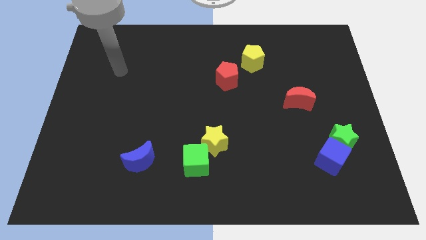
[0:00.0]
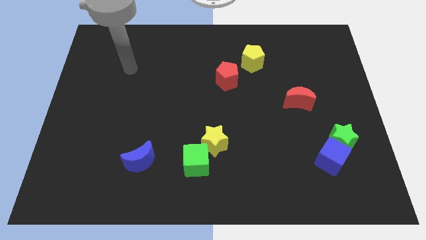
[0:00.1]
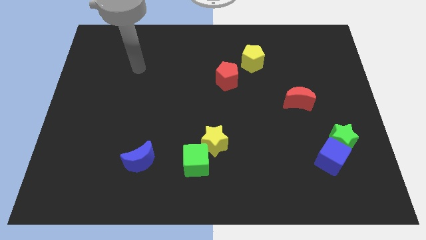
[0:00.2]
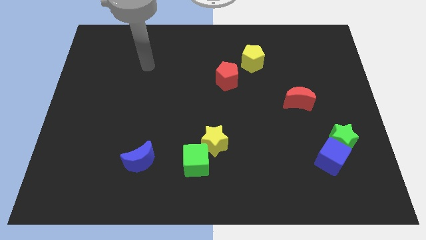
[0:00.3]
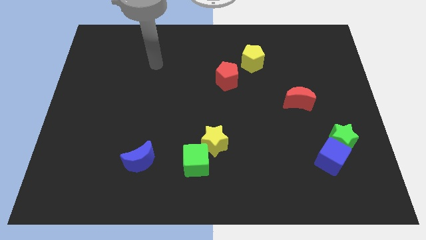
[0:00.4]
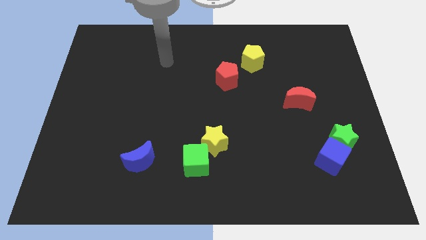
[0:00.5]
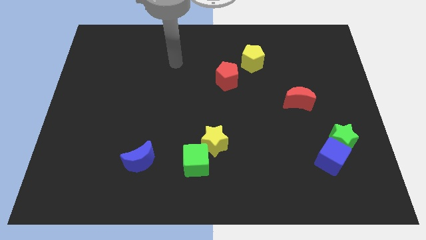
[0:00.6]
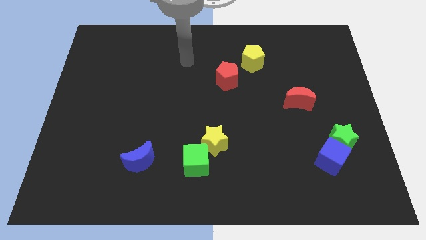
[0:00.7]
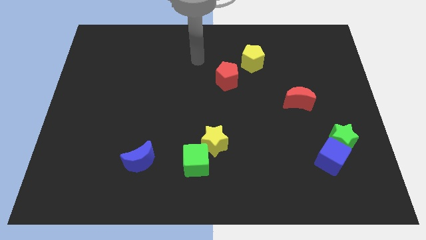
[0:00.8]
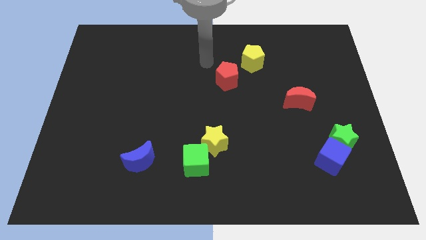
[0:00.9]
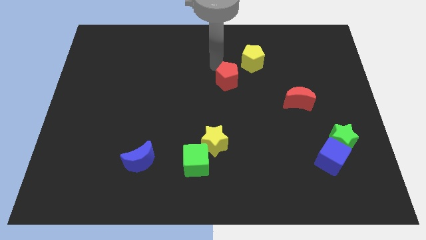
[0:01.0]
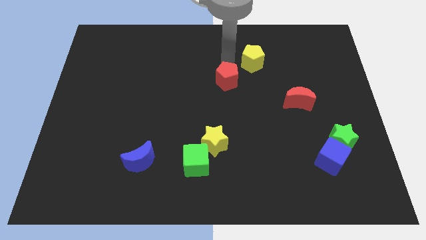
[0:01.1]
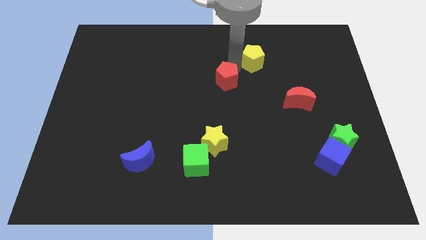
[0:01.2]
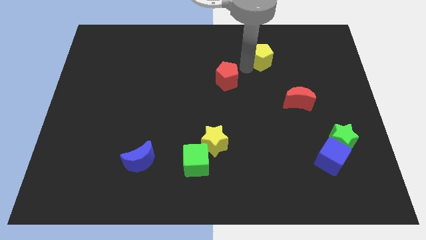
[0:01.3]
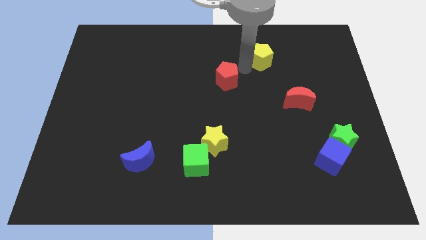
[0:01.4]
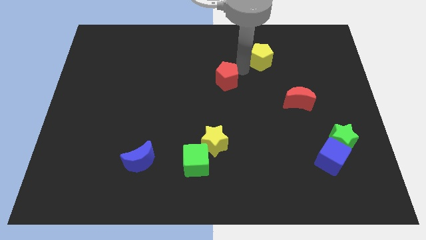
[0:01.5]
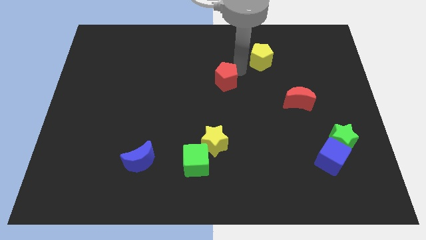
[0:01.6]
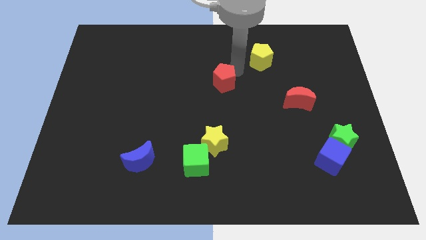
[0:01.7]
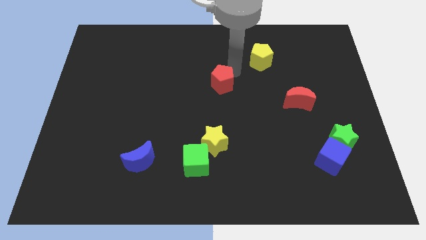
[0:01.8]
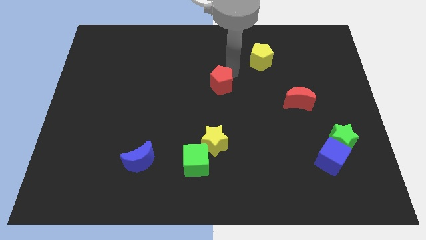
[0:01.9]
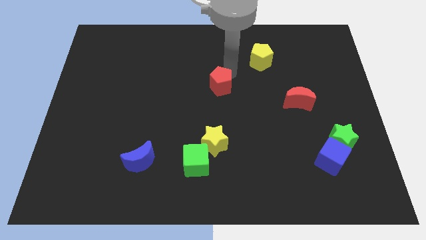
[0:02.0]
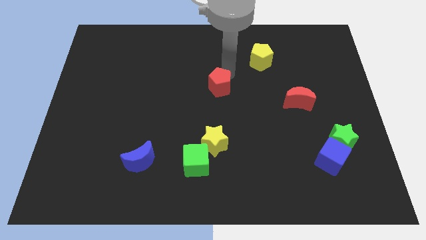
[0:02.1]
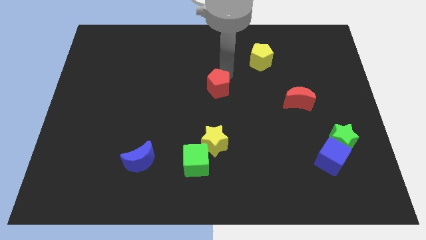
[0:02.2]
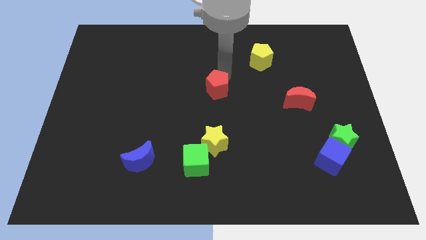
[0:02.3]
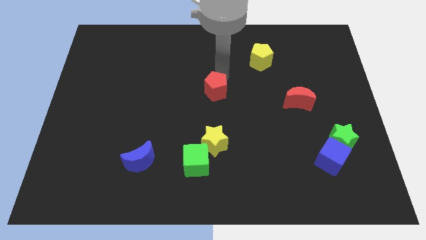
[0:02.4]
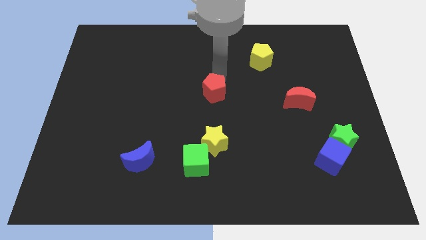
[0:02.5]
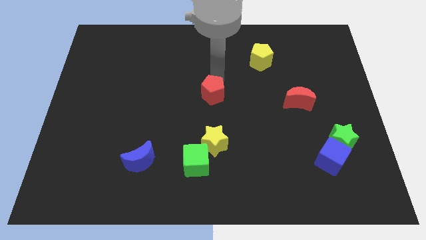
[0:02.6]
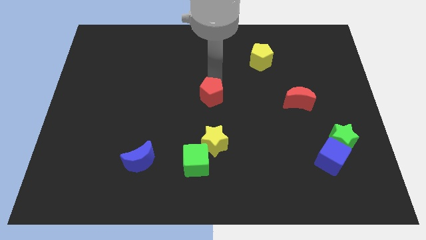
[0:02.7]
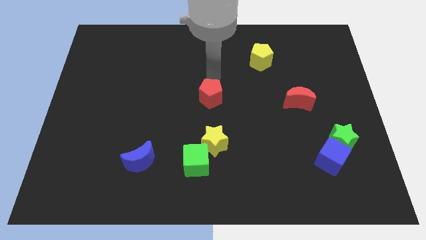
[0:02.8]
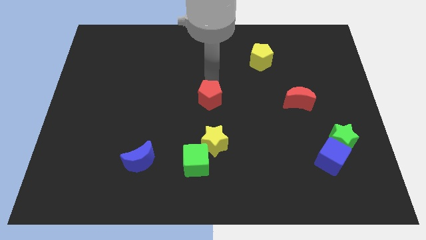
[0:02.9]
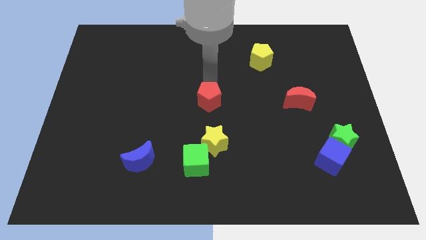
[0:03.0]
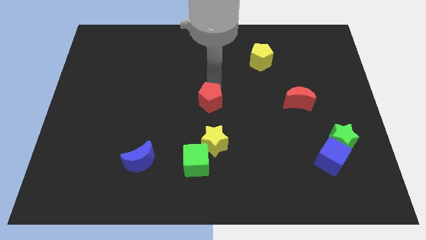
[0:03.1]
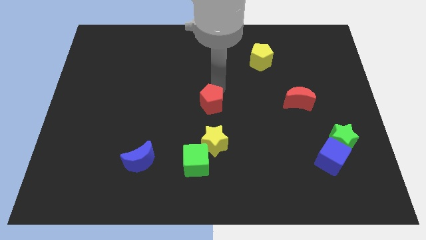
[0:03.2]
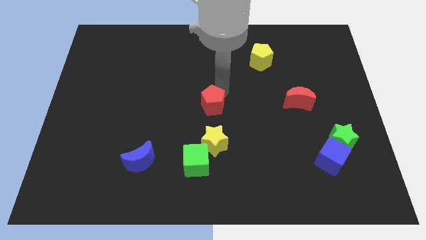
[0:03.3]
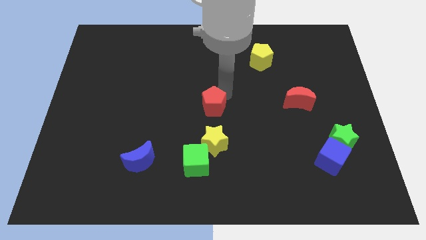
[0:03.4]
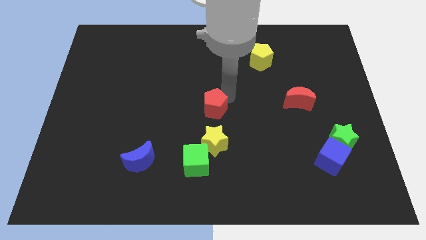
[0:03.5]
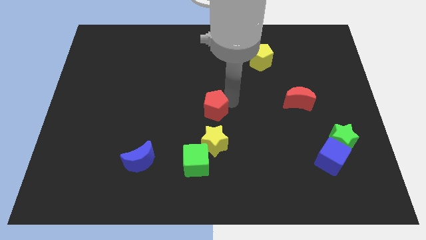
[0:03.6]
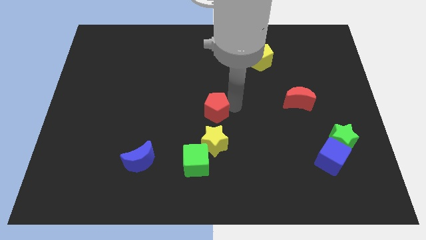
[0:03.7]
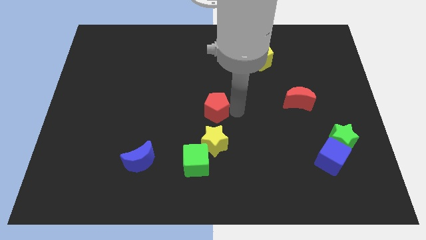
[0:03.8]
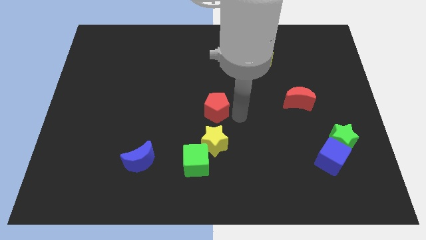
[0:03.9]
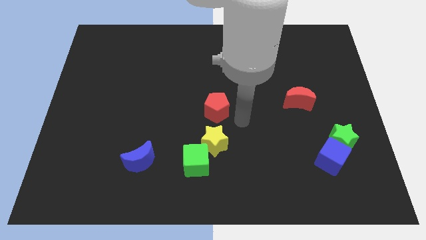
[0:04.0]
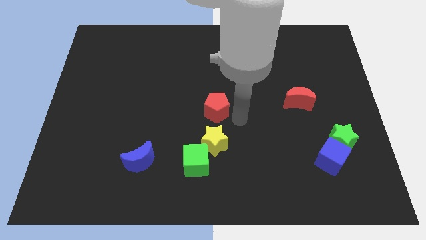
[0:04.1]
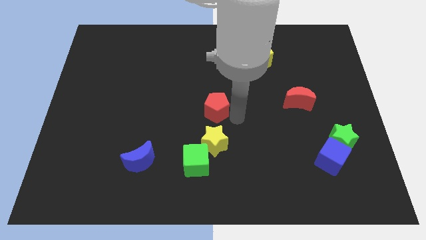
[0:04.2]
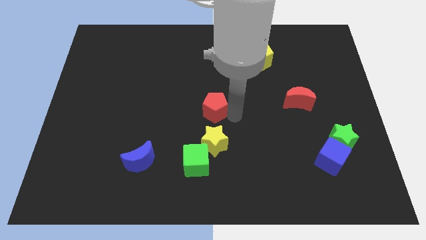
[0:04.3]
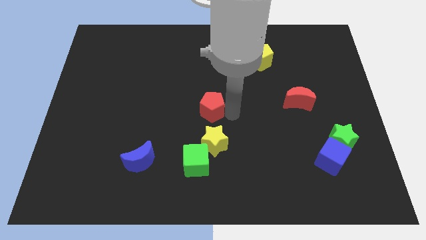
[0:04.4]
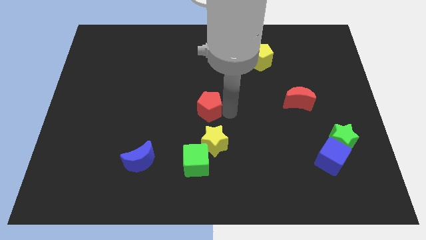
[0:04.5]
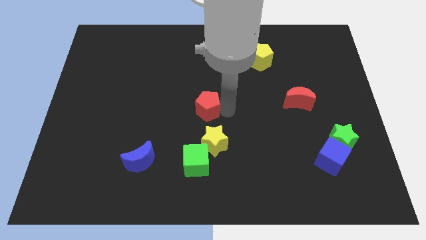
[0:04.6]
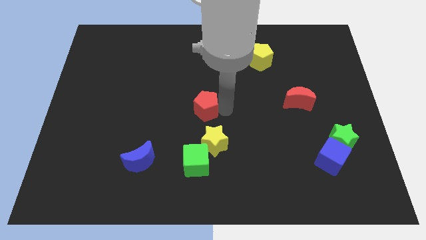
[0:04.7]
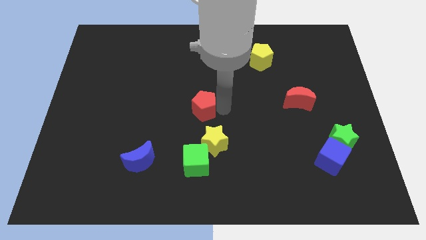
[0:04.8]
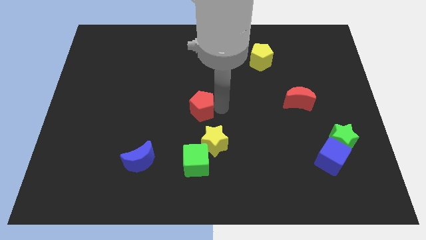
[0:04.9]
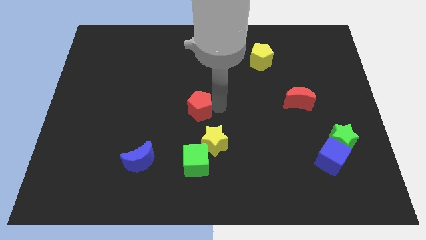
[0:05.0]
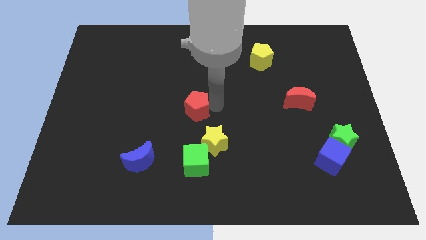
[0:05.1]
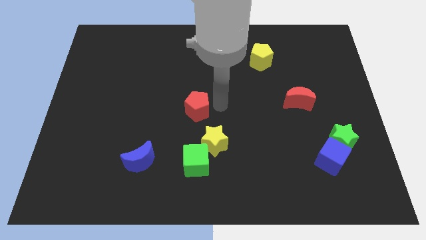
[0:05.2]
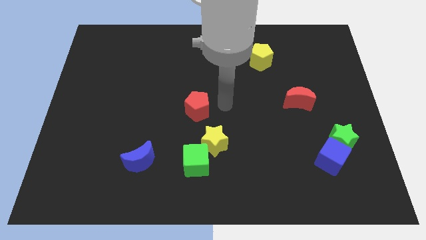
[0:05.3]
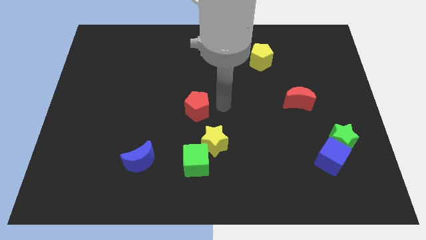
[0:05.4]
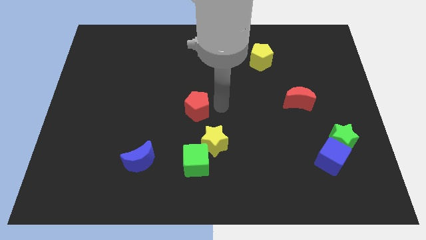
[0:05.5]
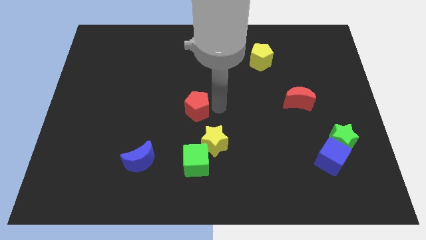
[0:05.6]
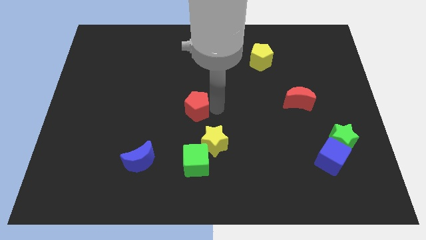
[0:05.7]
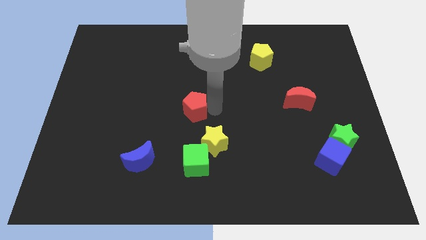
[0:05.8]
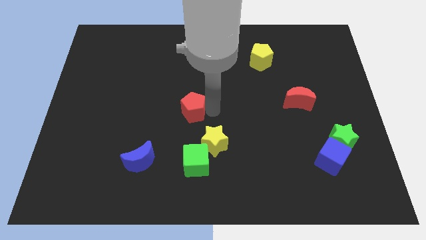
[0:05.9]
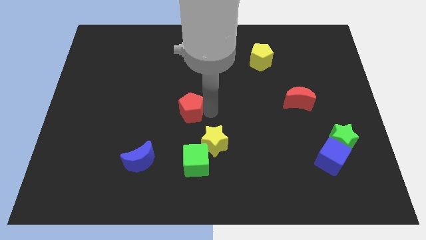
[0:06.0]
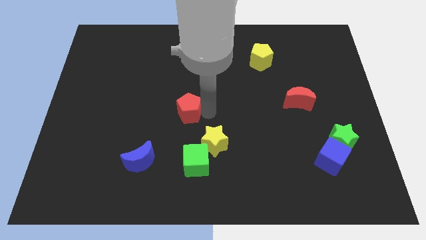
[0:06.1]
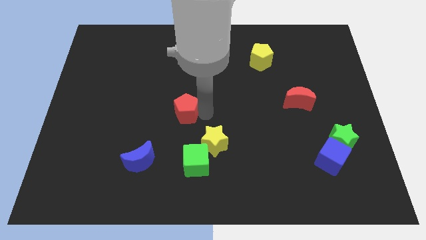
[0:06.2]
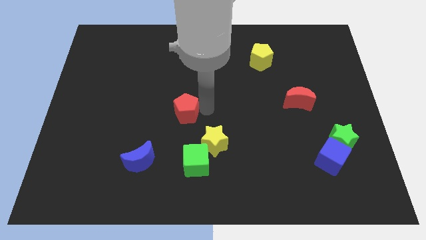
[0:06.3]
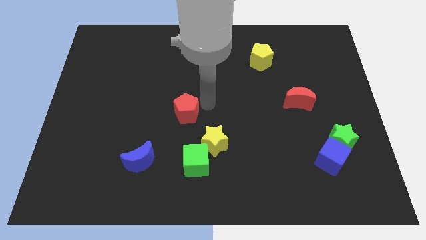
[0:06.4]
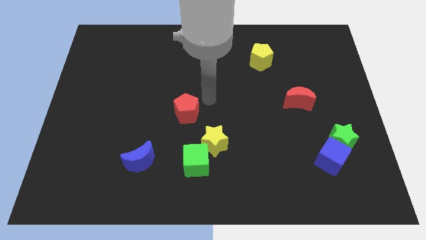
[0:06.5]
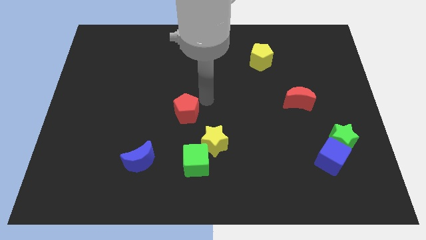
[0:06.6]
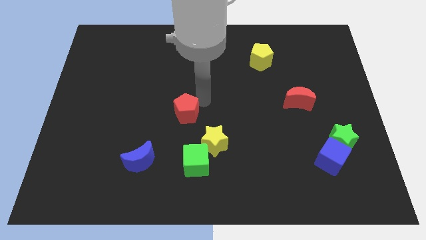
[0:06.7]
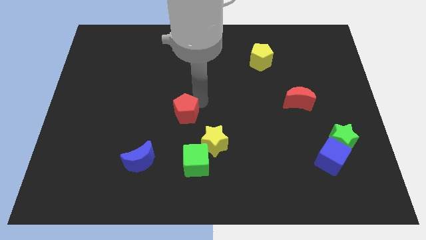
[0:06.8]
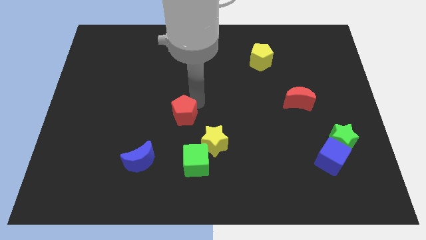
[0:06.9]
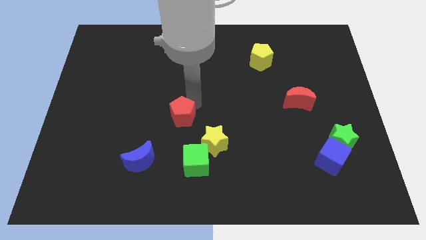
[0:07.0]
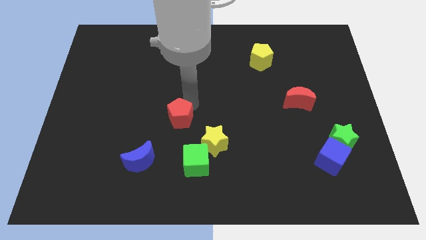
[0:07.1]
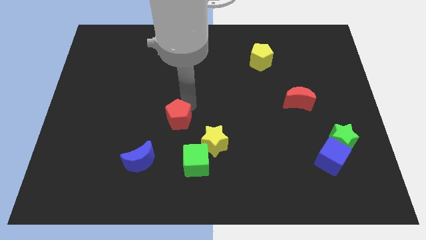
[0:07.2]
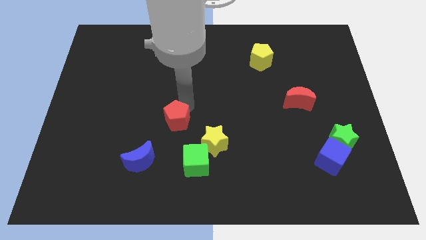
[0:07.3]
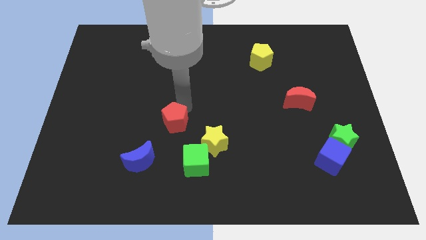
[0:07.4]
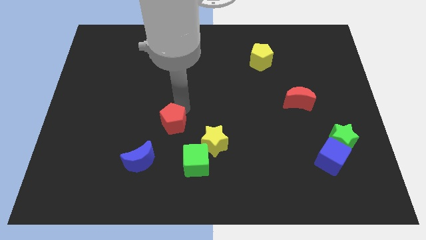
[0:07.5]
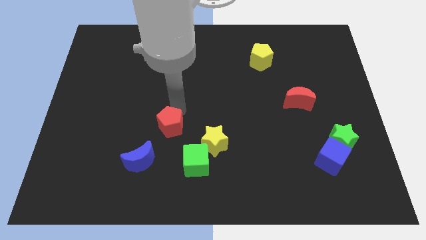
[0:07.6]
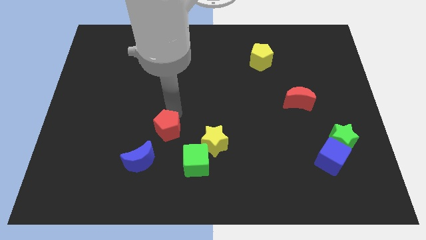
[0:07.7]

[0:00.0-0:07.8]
slide the red pentagon downwards and left
